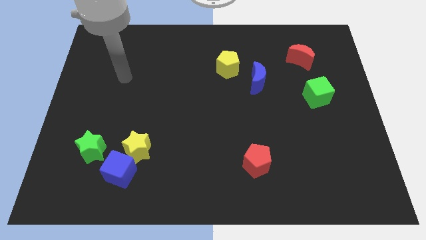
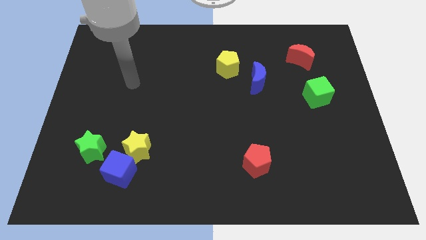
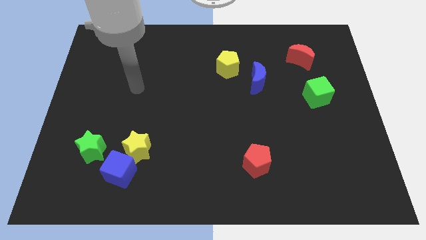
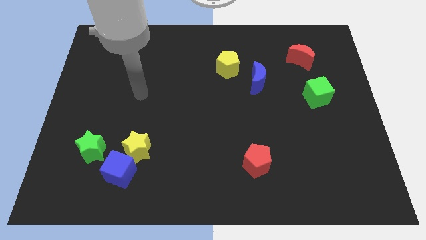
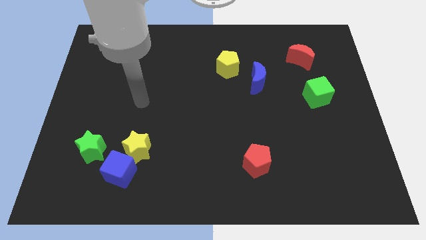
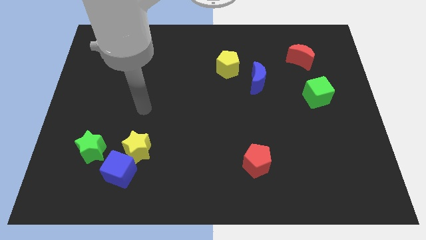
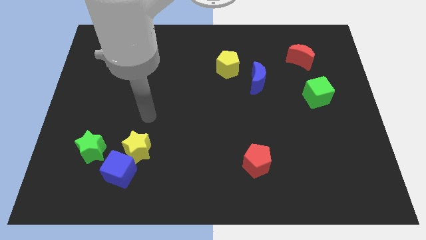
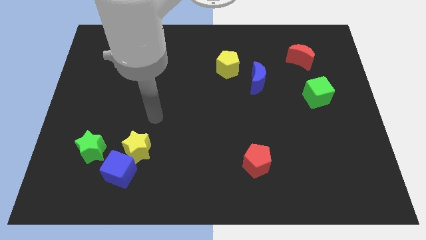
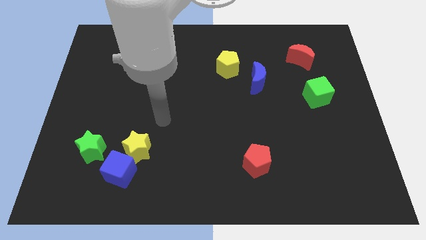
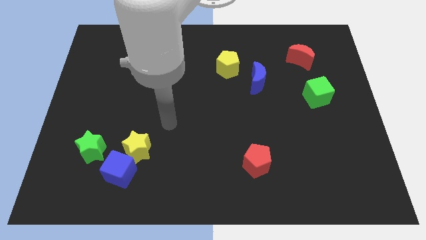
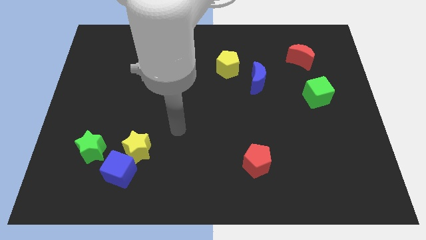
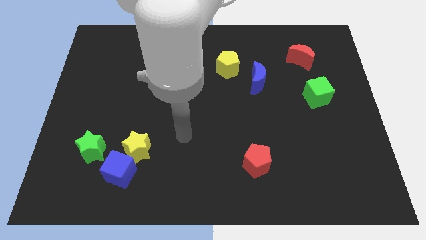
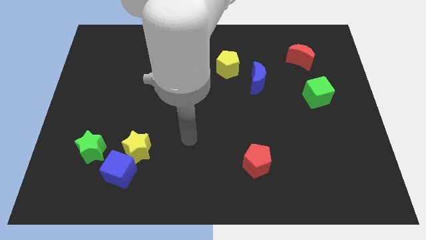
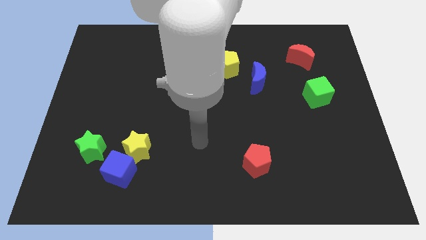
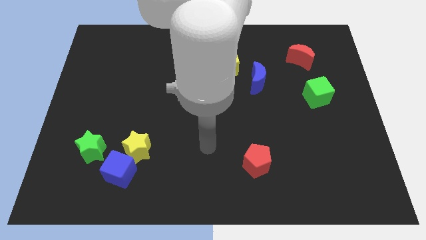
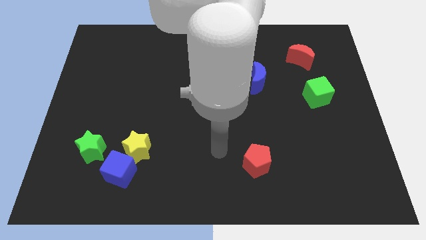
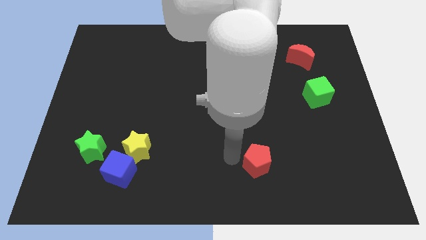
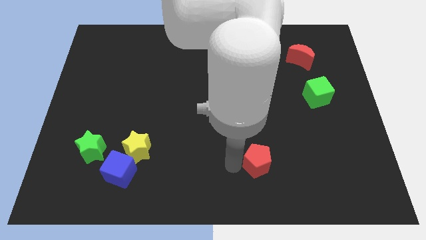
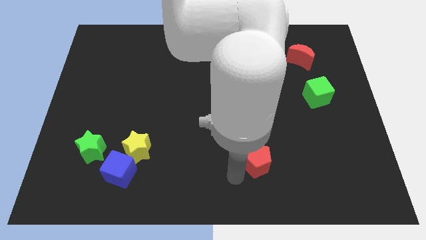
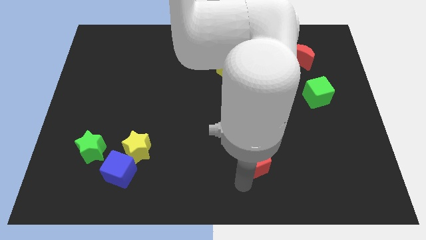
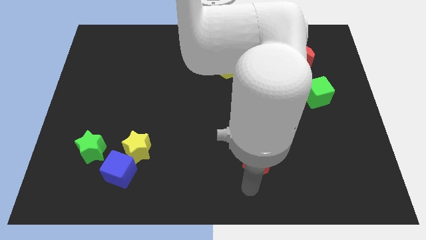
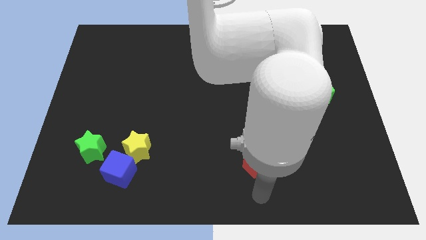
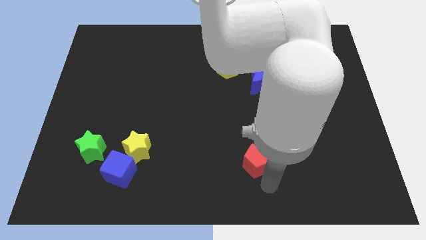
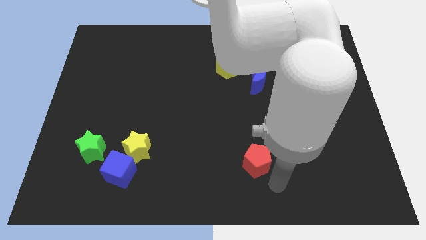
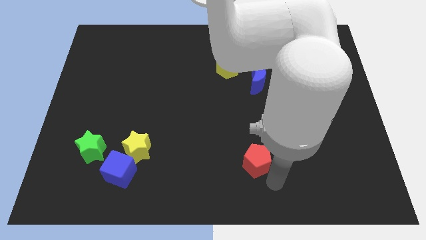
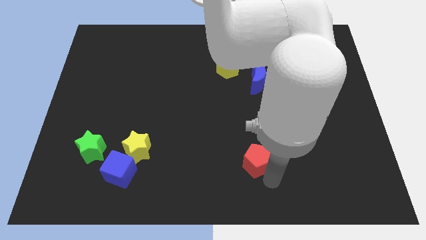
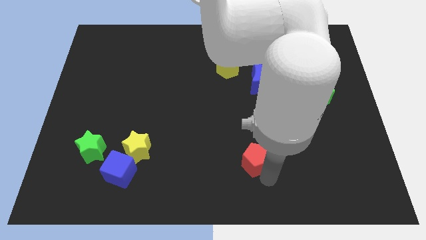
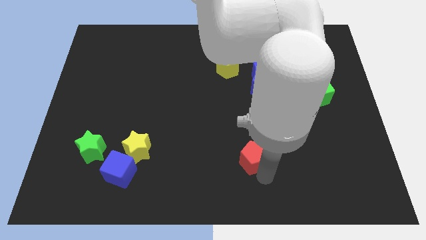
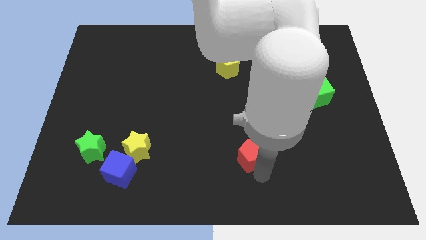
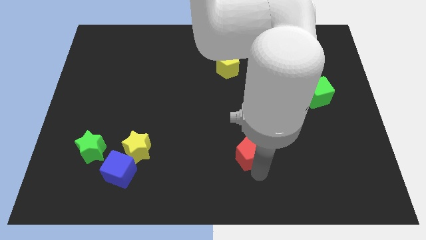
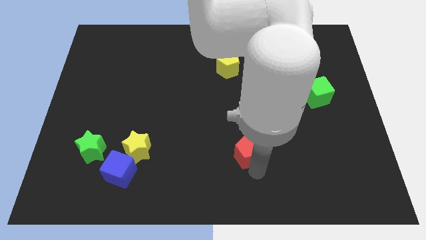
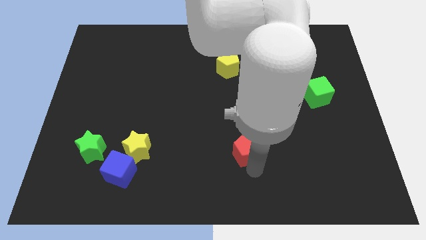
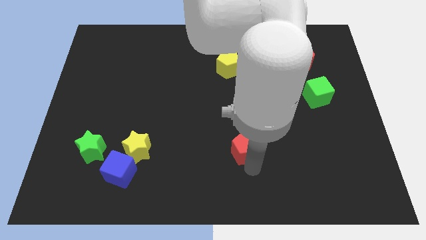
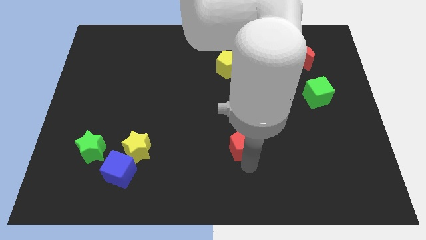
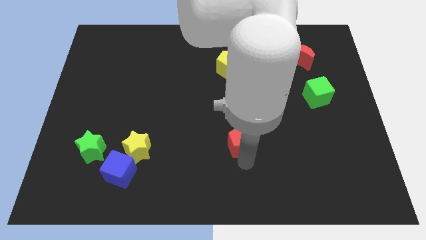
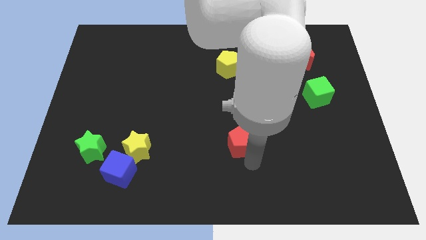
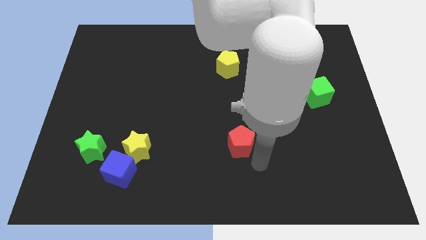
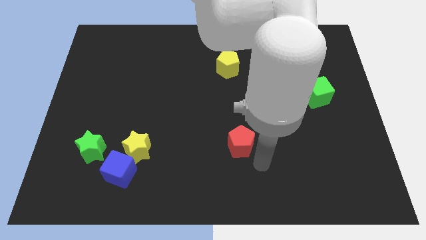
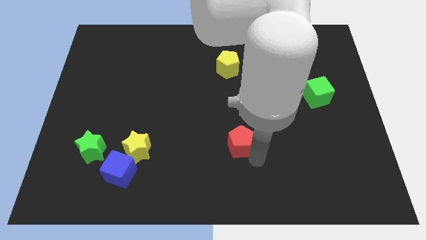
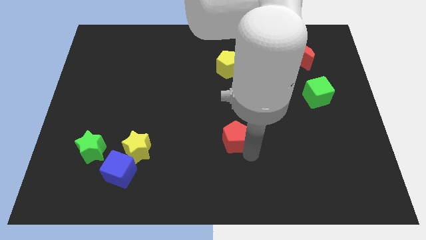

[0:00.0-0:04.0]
move the red pentagon a little bit diagonally up and to the left

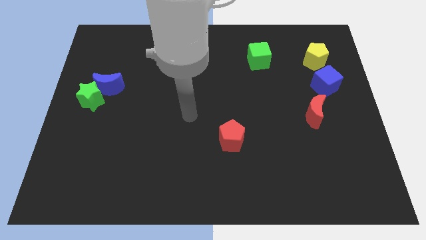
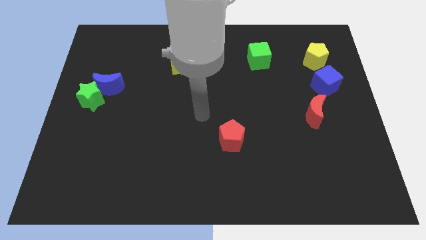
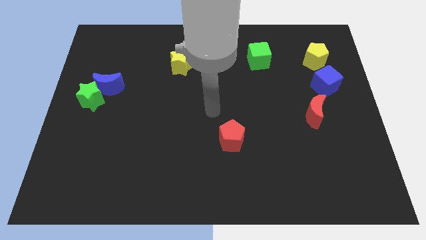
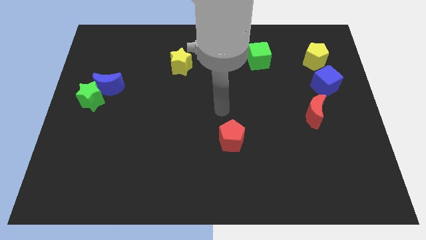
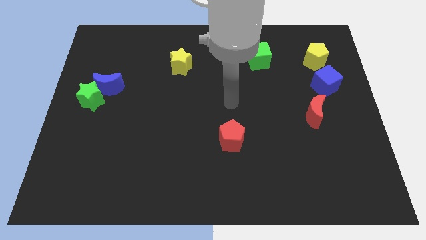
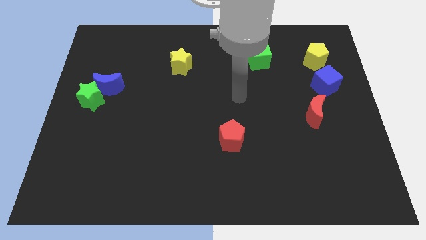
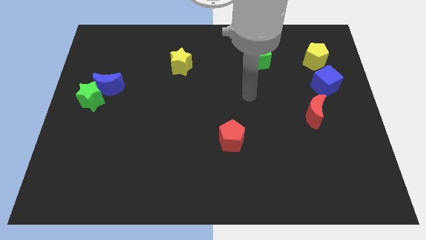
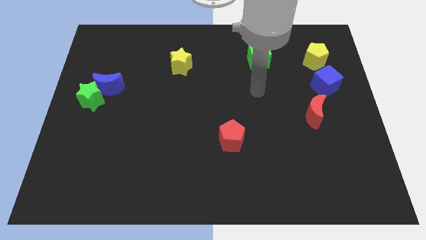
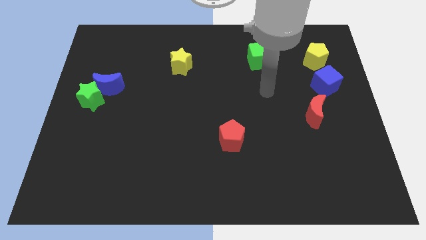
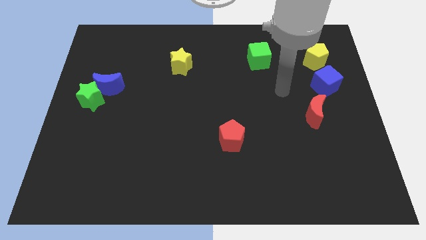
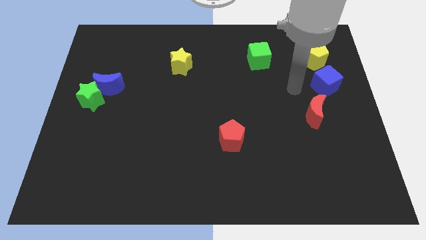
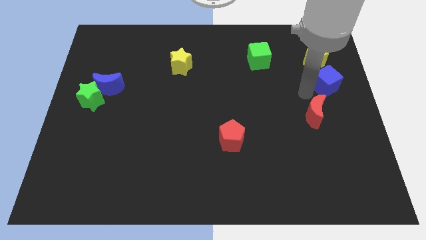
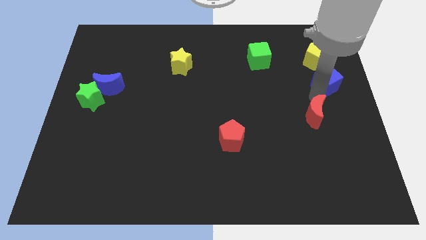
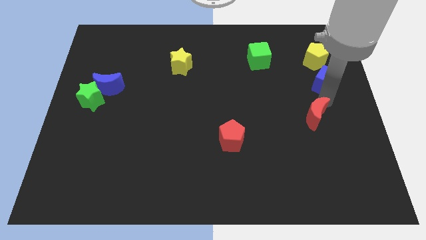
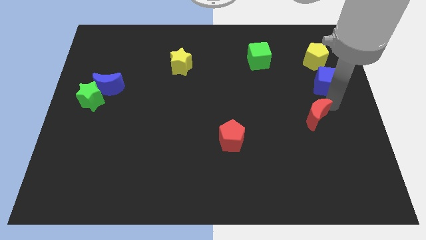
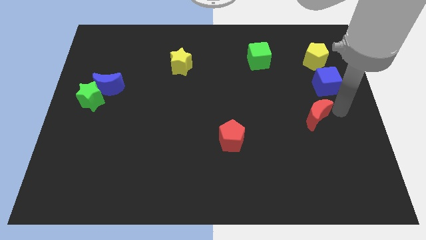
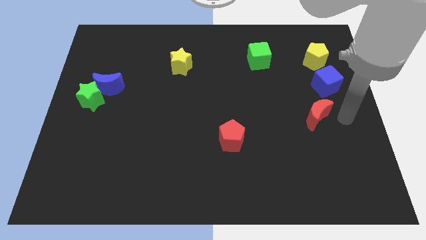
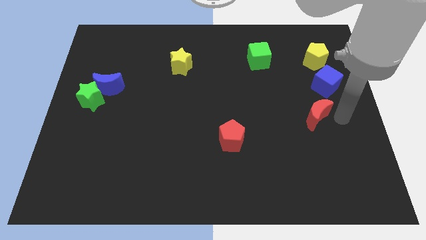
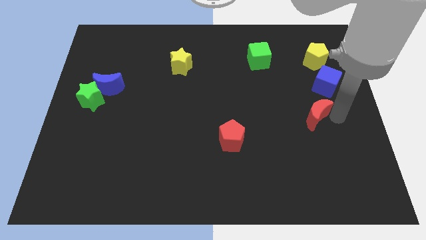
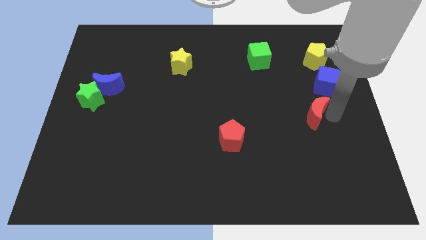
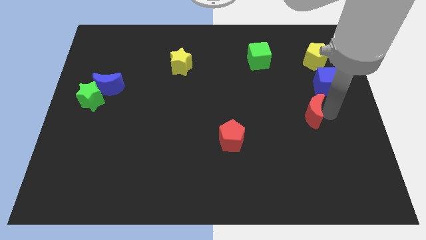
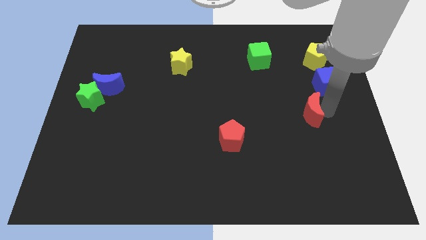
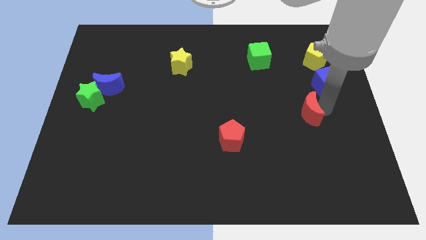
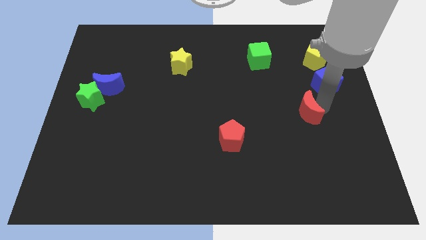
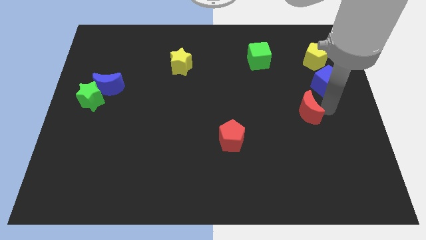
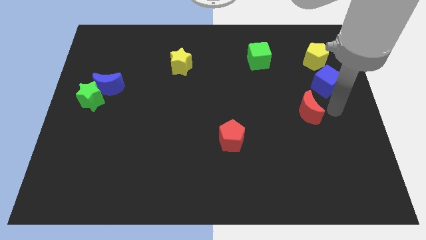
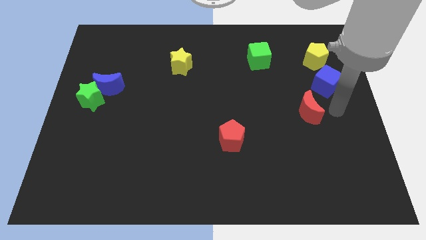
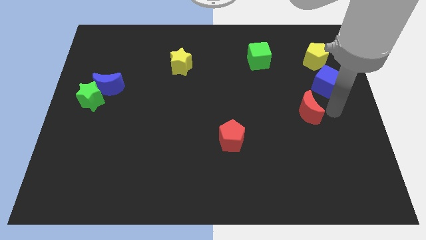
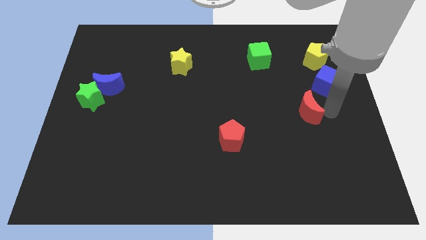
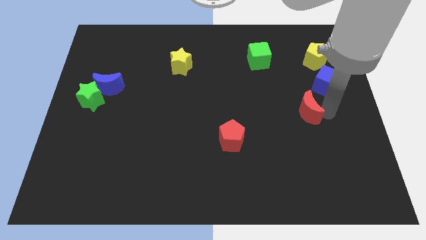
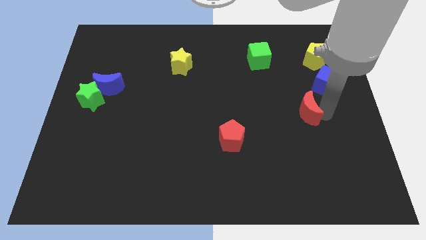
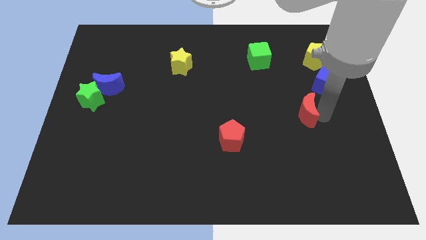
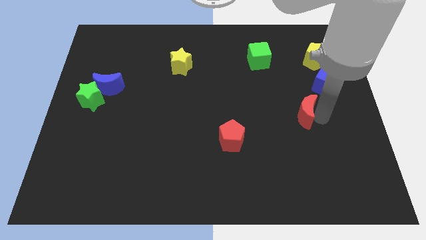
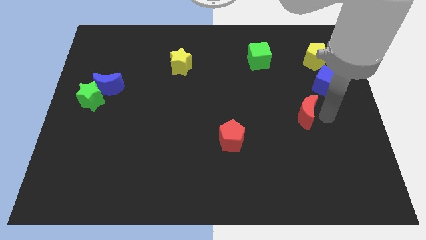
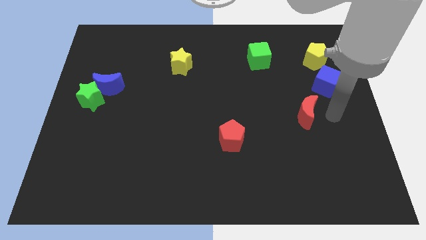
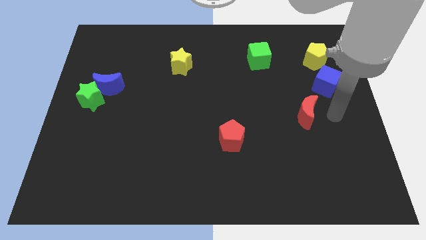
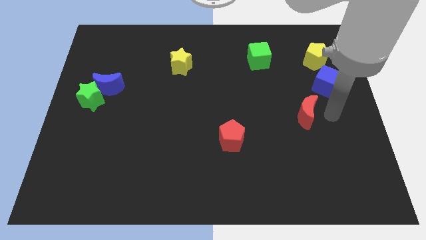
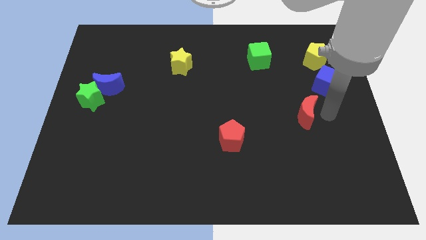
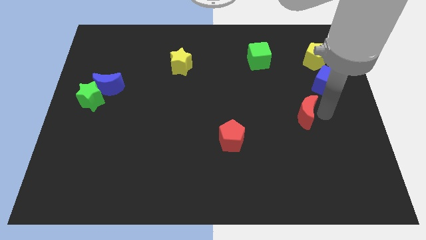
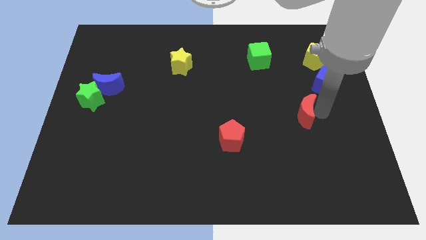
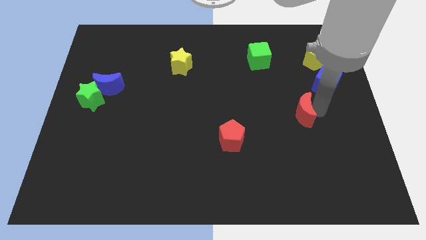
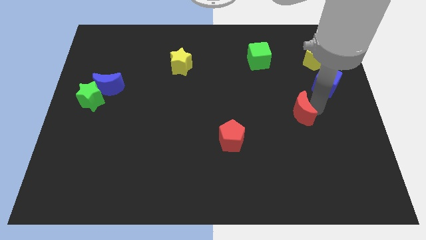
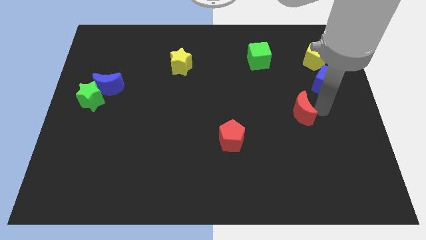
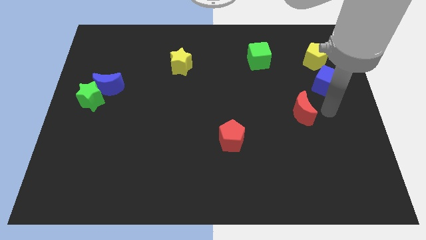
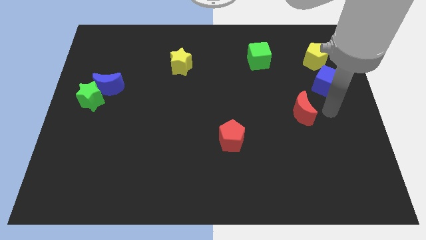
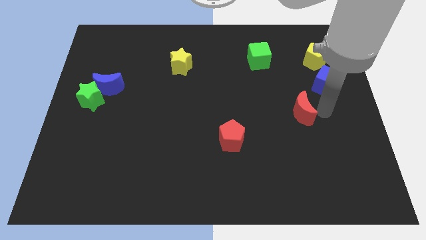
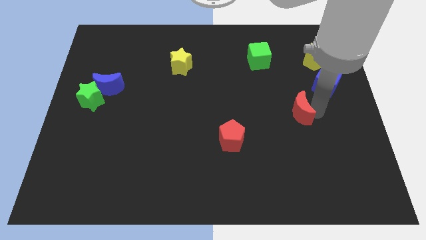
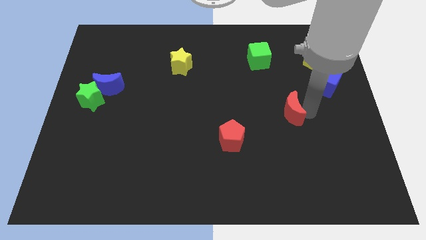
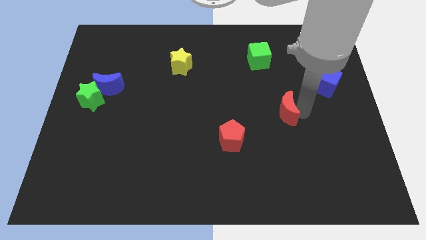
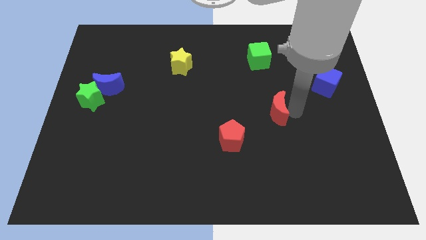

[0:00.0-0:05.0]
slide the red moon left slightly
